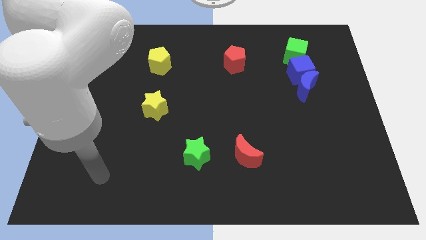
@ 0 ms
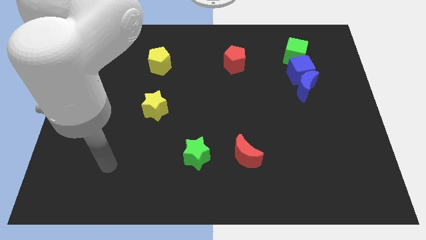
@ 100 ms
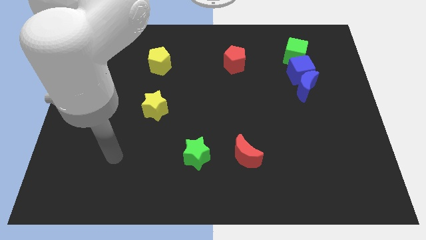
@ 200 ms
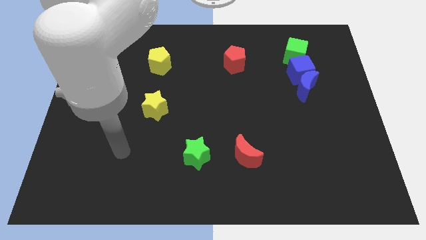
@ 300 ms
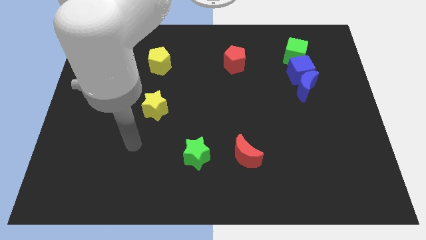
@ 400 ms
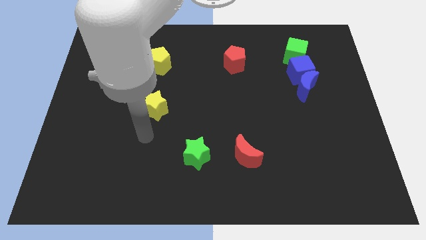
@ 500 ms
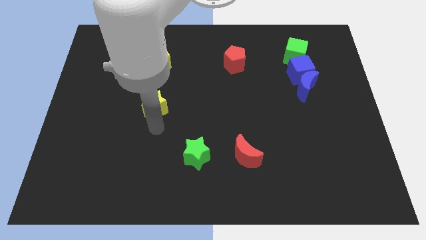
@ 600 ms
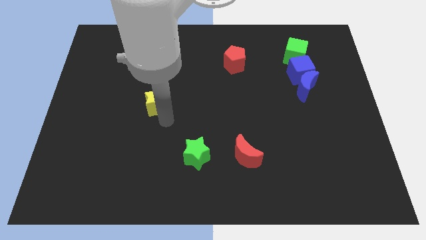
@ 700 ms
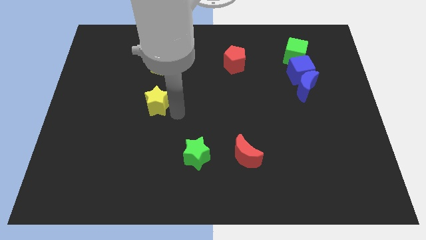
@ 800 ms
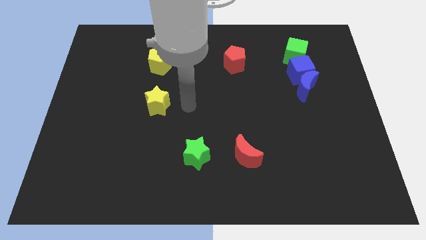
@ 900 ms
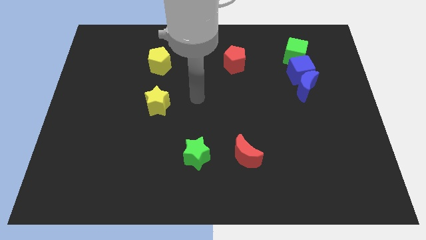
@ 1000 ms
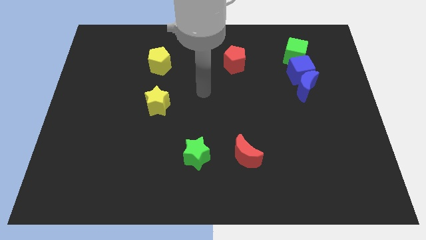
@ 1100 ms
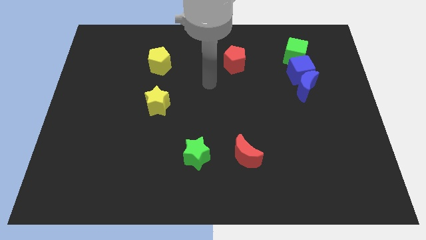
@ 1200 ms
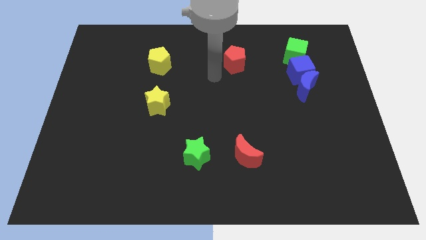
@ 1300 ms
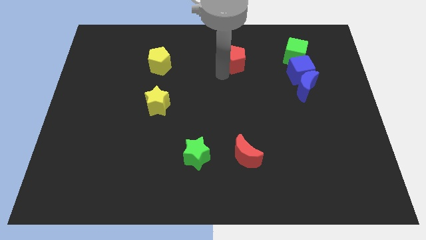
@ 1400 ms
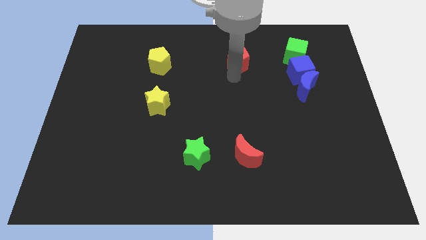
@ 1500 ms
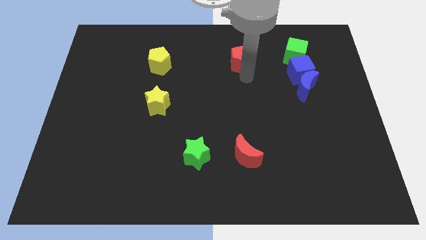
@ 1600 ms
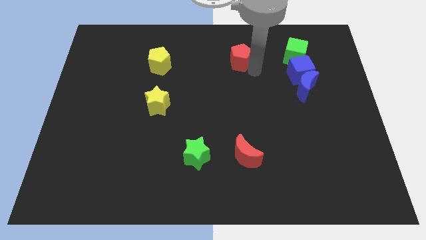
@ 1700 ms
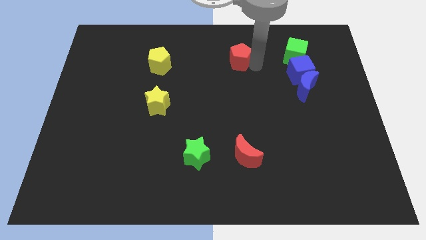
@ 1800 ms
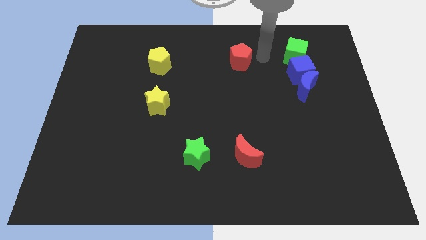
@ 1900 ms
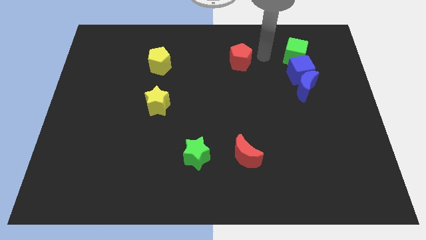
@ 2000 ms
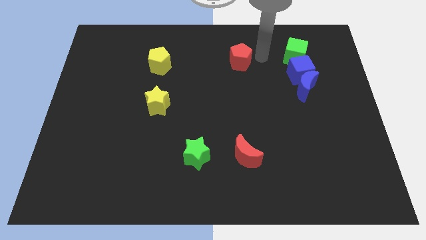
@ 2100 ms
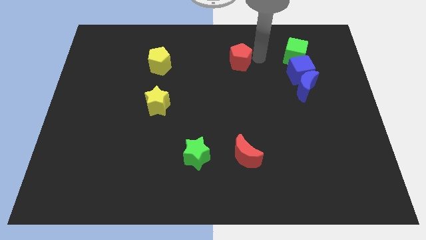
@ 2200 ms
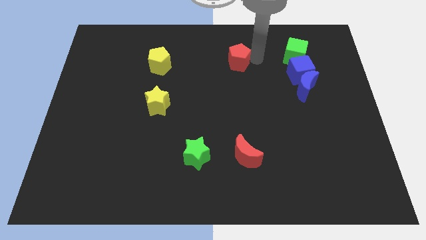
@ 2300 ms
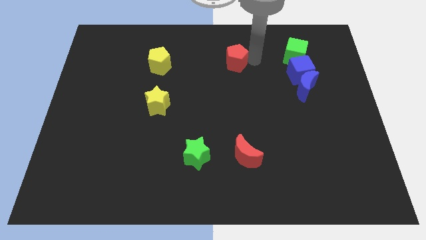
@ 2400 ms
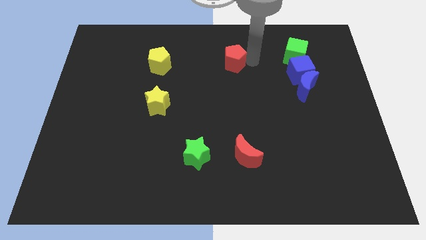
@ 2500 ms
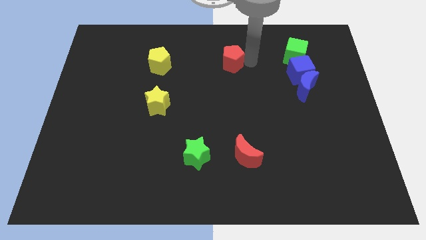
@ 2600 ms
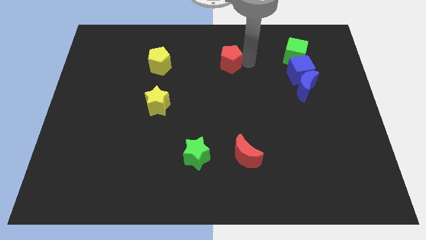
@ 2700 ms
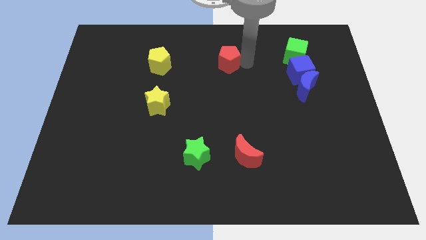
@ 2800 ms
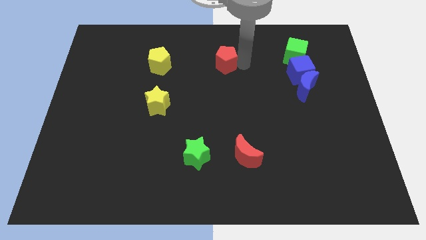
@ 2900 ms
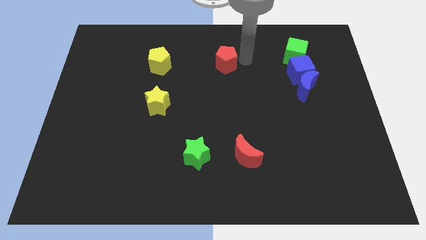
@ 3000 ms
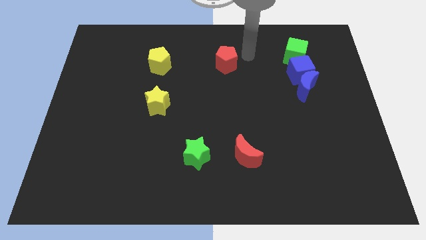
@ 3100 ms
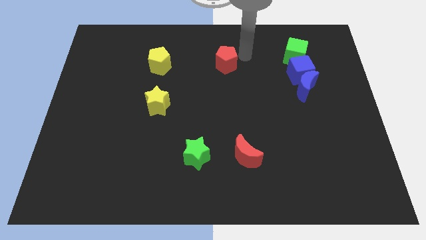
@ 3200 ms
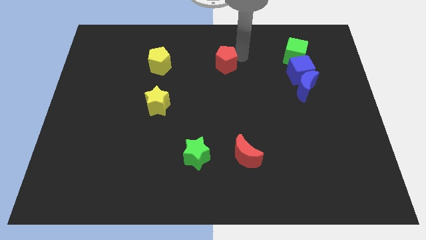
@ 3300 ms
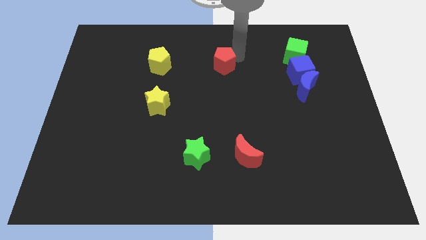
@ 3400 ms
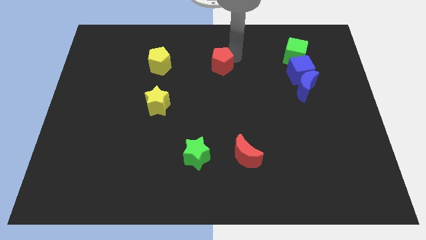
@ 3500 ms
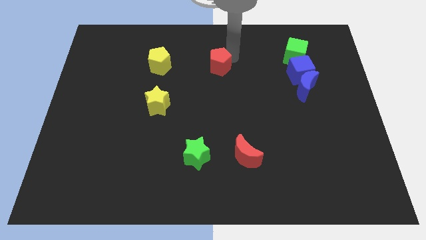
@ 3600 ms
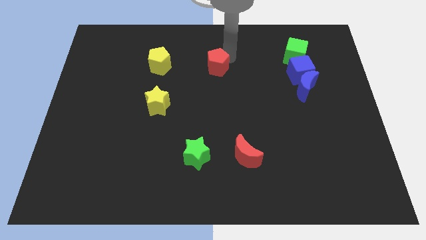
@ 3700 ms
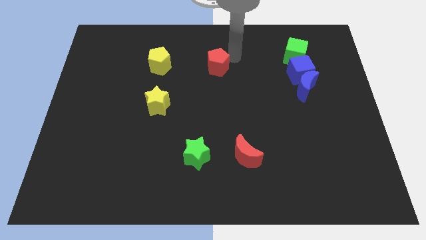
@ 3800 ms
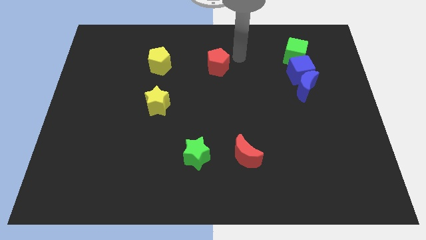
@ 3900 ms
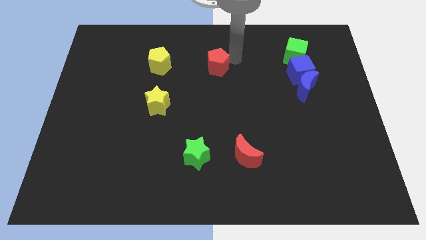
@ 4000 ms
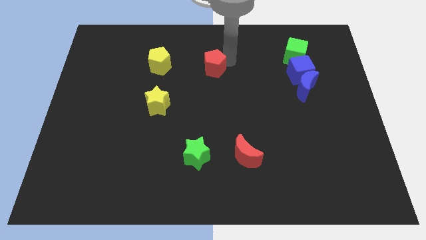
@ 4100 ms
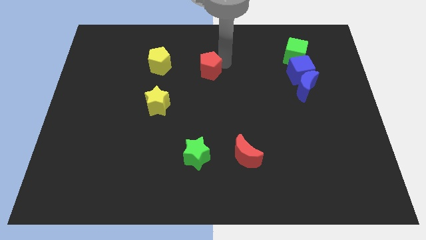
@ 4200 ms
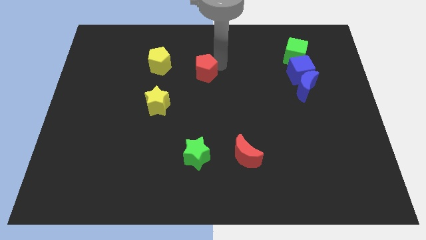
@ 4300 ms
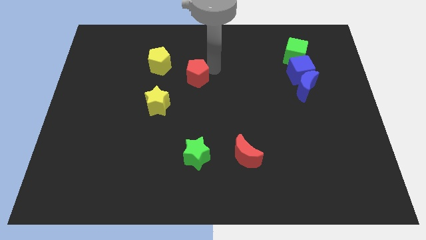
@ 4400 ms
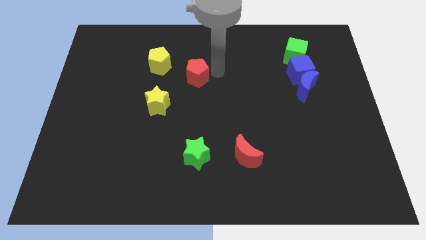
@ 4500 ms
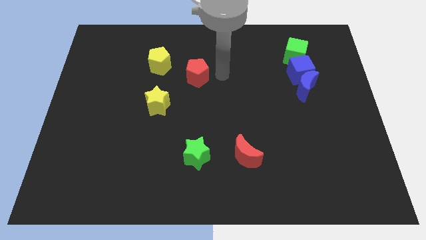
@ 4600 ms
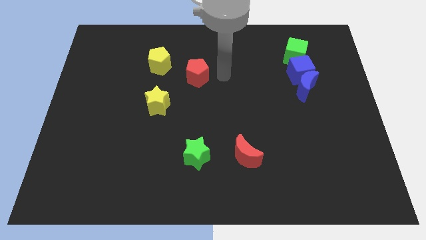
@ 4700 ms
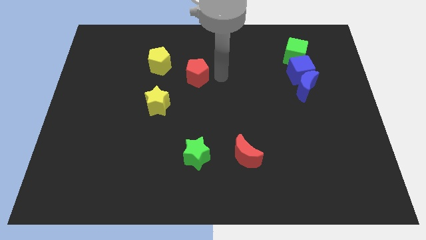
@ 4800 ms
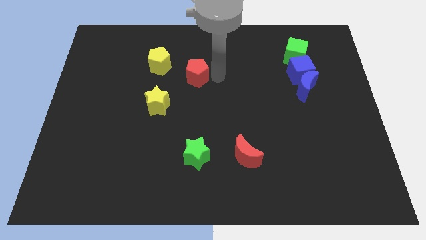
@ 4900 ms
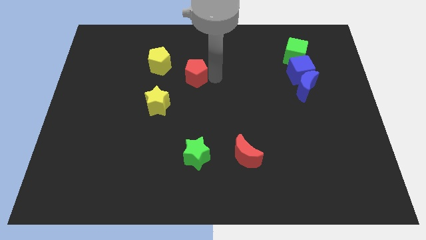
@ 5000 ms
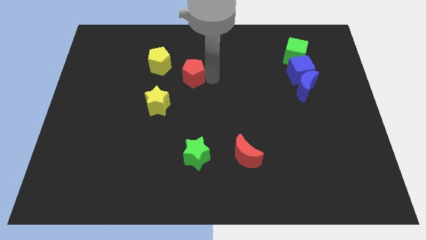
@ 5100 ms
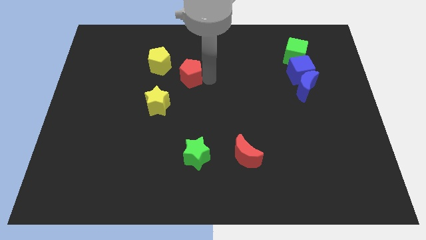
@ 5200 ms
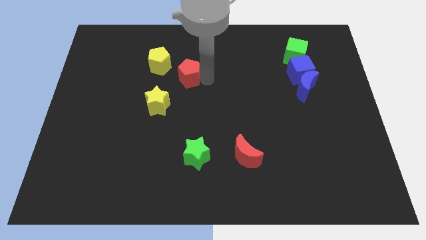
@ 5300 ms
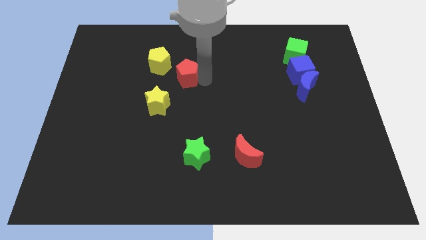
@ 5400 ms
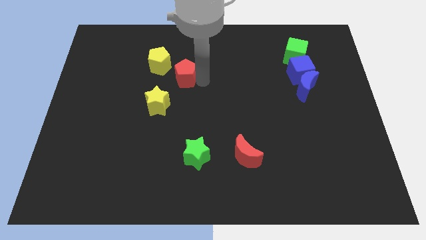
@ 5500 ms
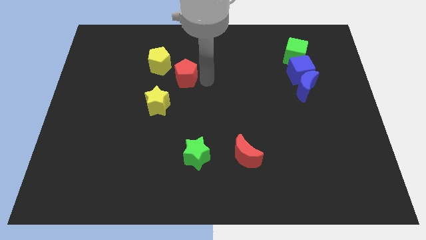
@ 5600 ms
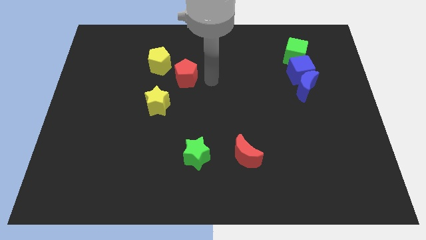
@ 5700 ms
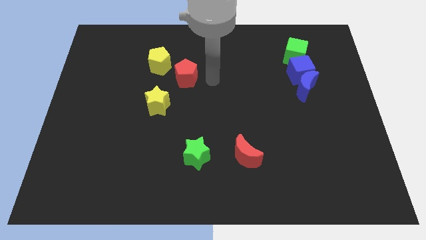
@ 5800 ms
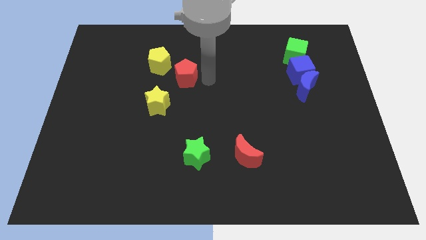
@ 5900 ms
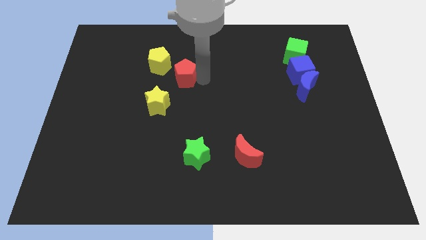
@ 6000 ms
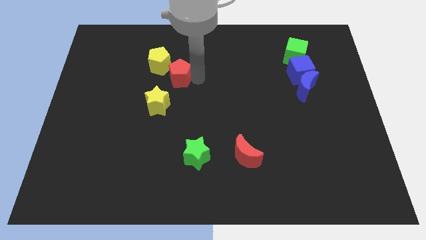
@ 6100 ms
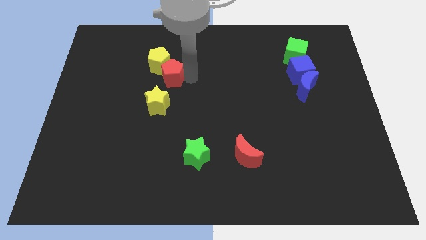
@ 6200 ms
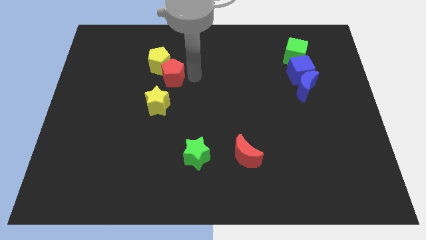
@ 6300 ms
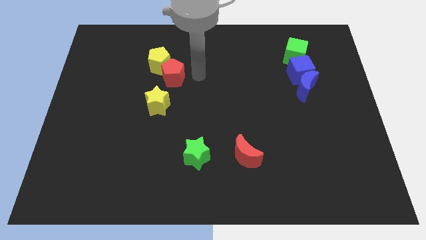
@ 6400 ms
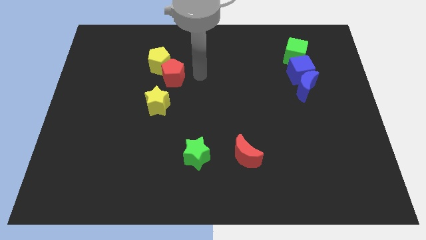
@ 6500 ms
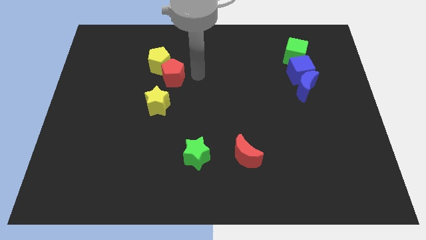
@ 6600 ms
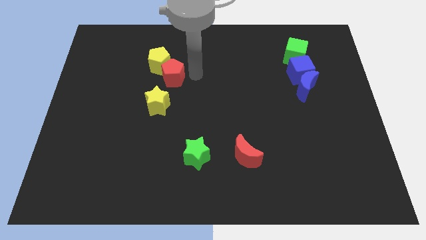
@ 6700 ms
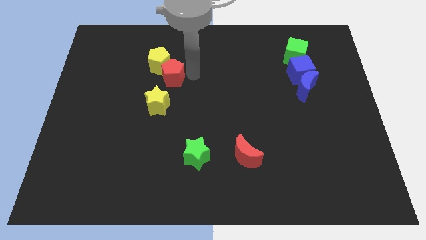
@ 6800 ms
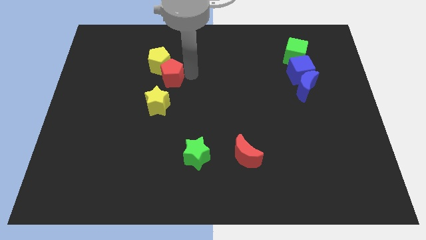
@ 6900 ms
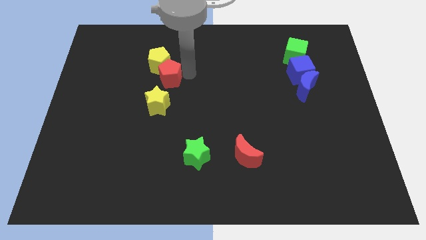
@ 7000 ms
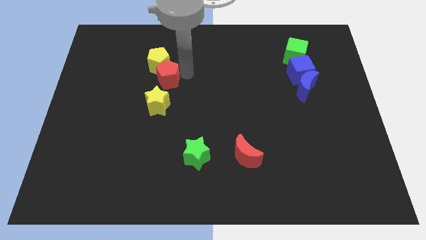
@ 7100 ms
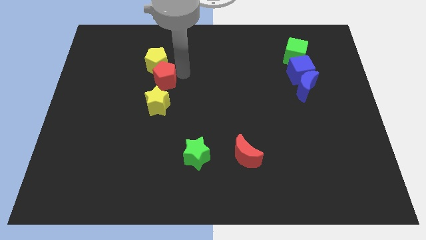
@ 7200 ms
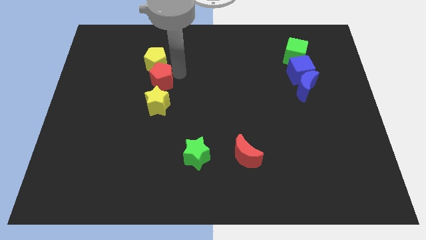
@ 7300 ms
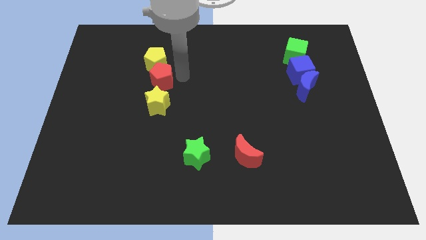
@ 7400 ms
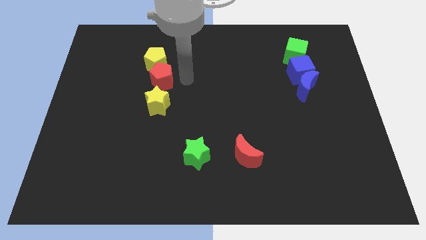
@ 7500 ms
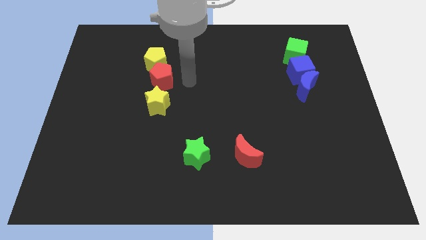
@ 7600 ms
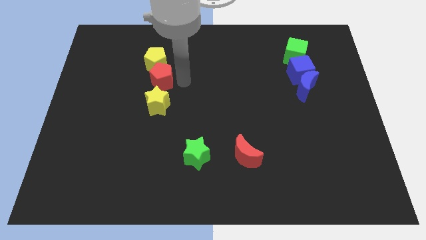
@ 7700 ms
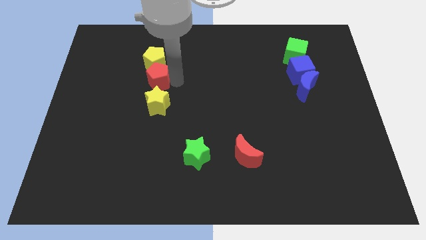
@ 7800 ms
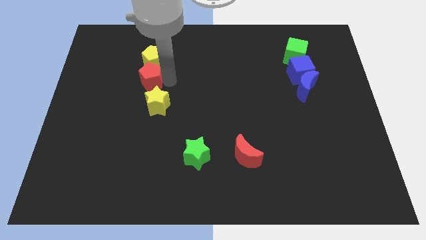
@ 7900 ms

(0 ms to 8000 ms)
slide the red pentagon diagonally down and to the left of the yellow pentagon
